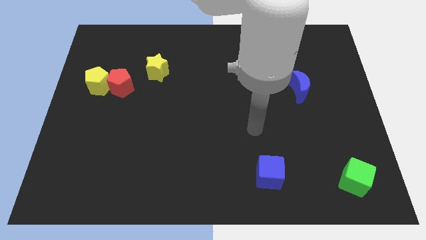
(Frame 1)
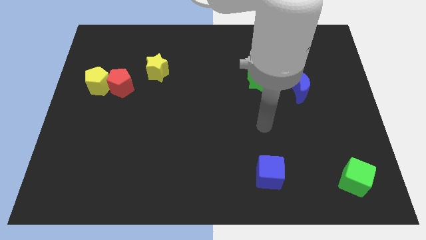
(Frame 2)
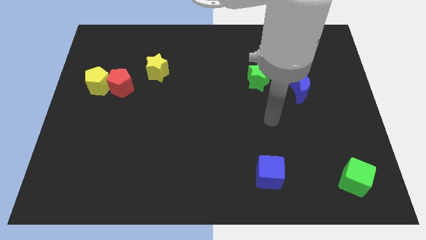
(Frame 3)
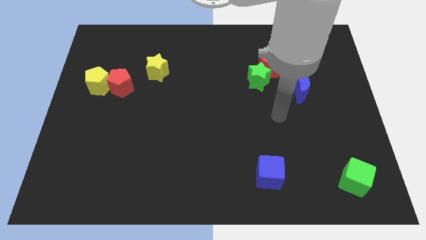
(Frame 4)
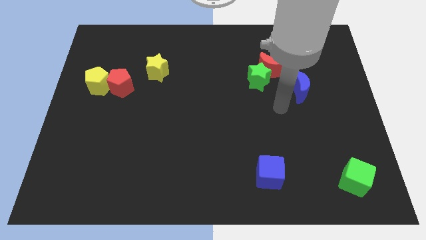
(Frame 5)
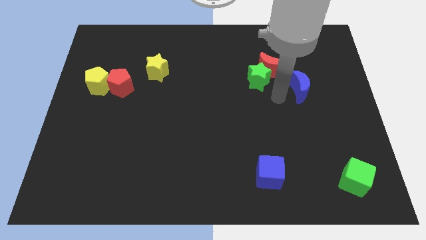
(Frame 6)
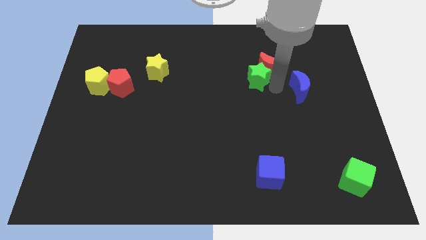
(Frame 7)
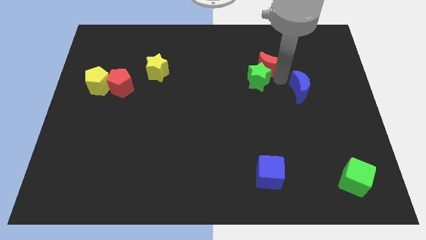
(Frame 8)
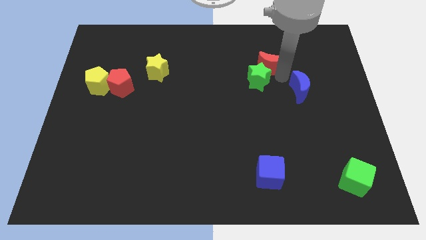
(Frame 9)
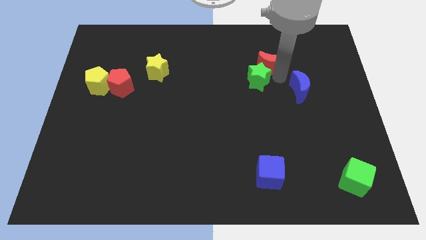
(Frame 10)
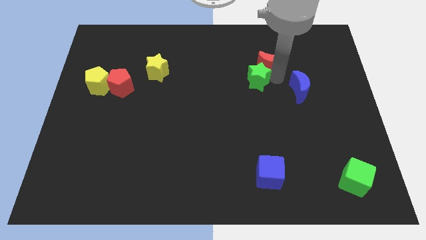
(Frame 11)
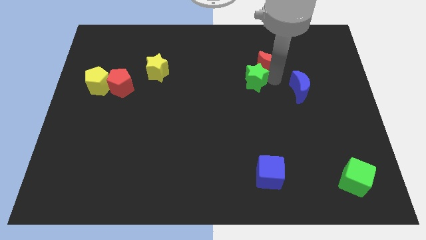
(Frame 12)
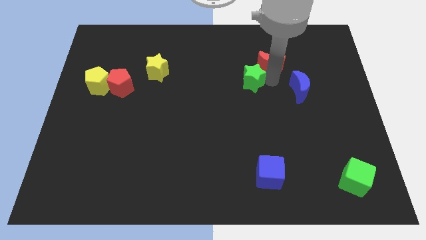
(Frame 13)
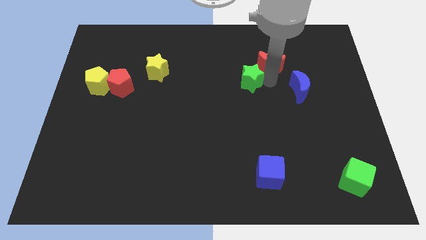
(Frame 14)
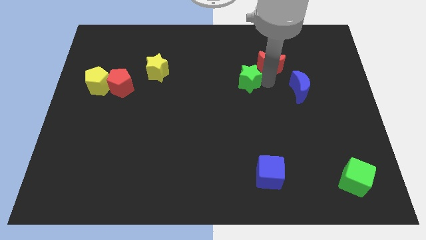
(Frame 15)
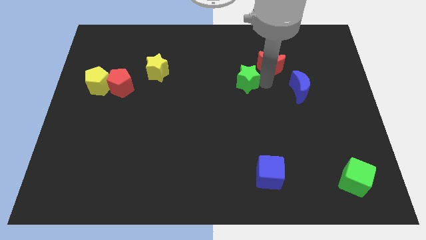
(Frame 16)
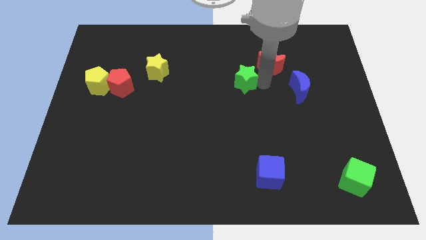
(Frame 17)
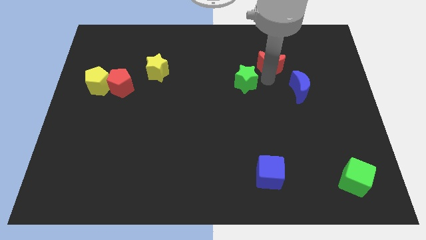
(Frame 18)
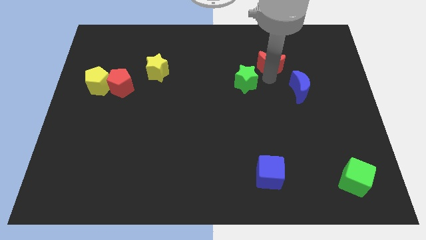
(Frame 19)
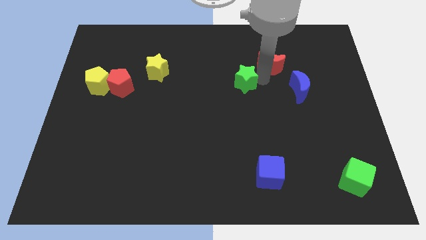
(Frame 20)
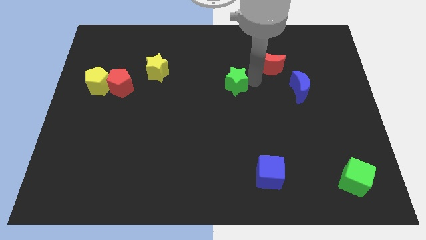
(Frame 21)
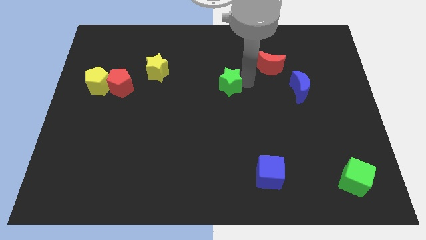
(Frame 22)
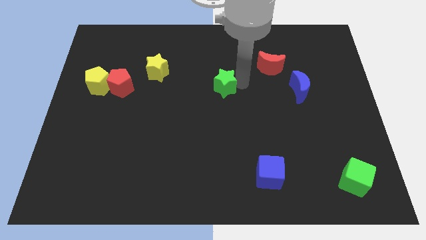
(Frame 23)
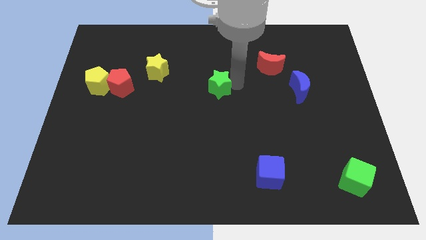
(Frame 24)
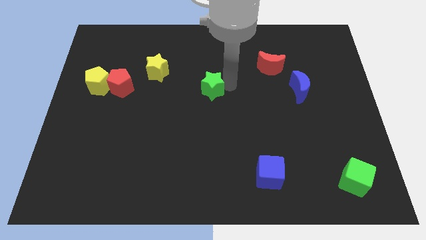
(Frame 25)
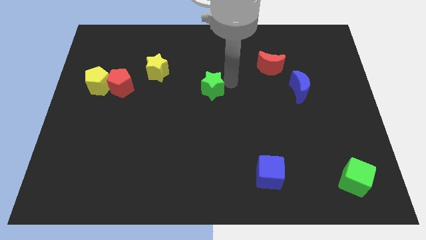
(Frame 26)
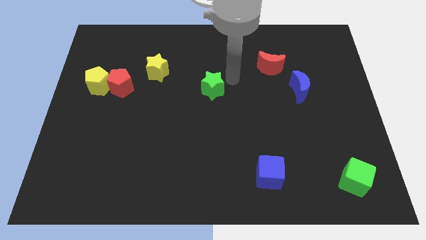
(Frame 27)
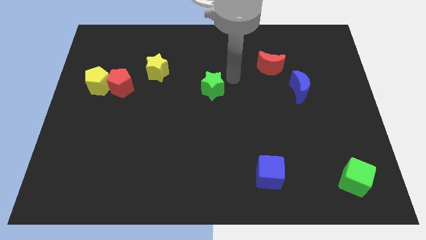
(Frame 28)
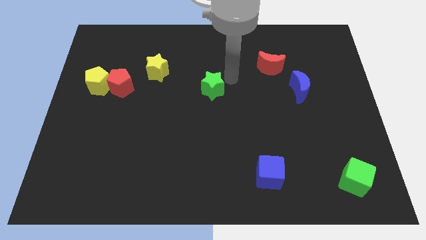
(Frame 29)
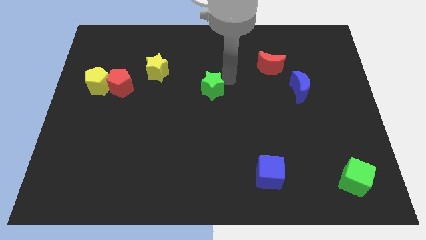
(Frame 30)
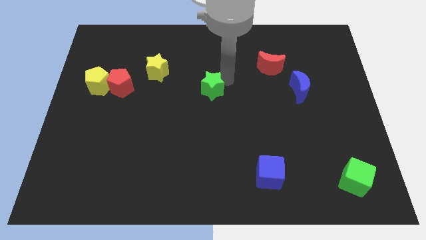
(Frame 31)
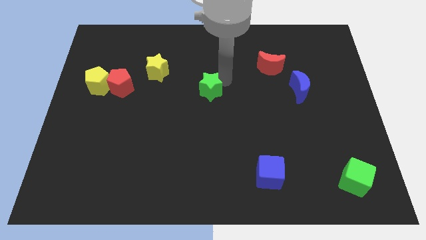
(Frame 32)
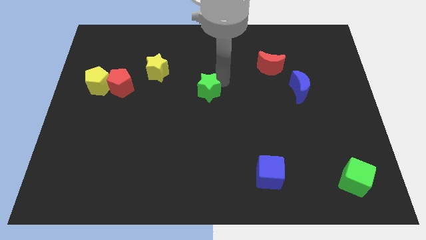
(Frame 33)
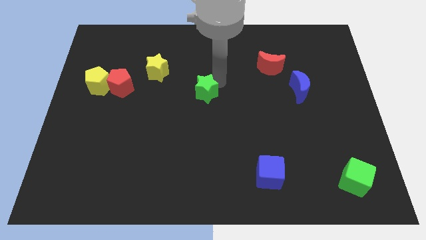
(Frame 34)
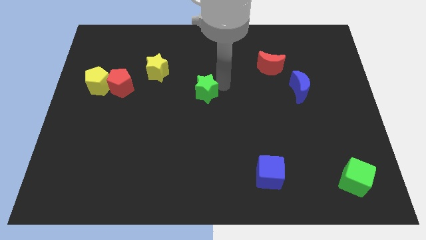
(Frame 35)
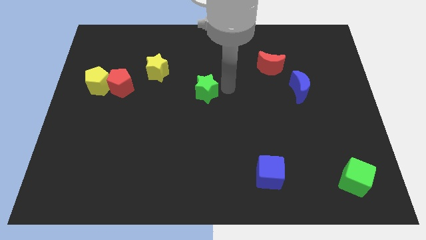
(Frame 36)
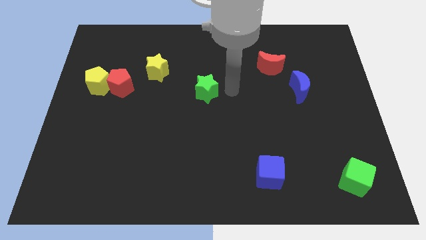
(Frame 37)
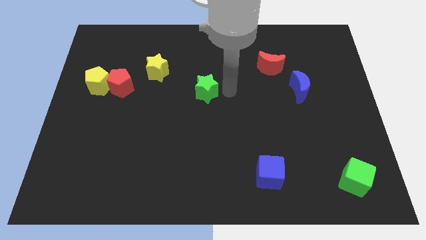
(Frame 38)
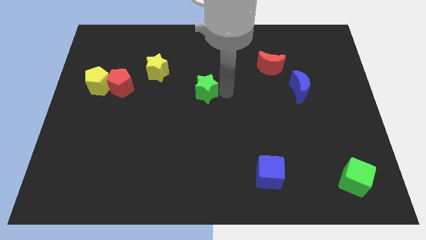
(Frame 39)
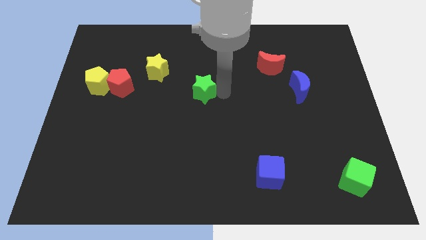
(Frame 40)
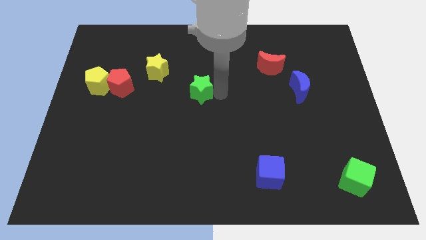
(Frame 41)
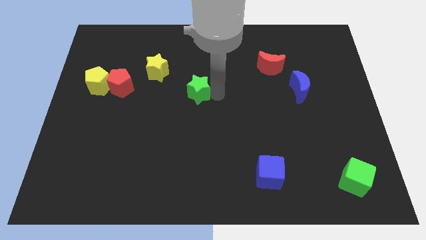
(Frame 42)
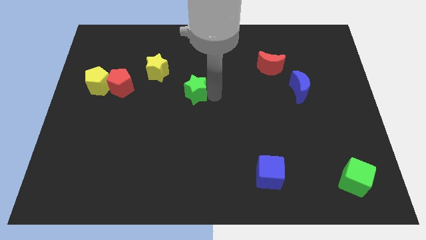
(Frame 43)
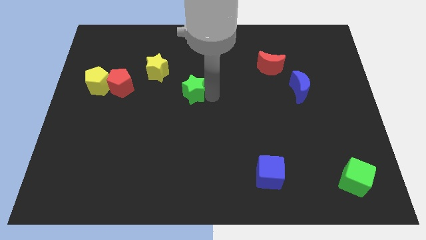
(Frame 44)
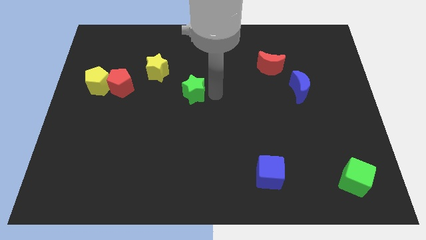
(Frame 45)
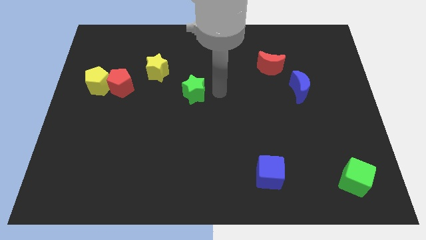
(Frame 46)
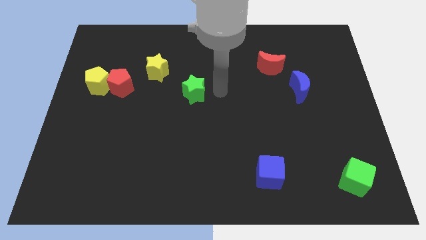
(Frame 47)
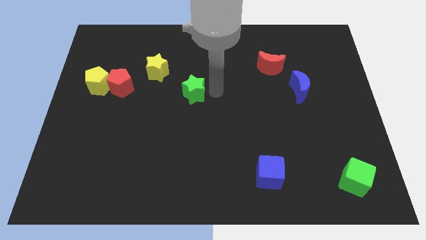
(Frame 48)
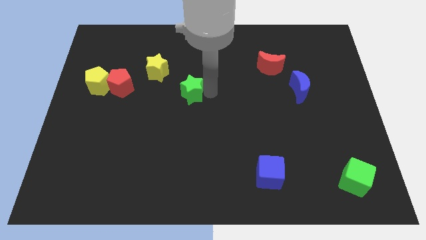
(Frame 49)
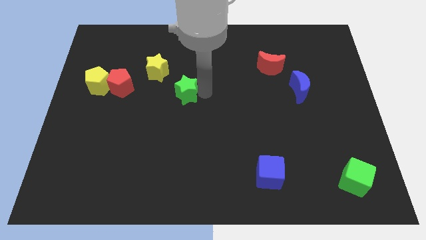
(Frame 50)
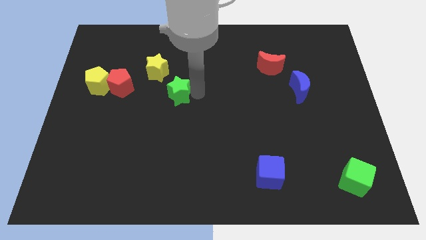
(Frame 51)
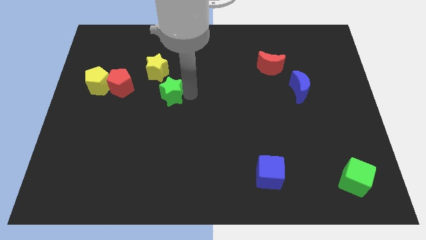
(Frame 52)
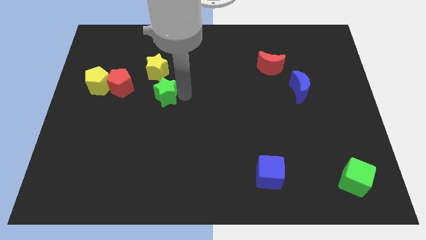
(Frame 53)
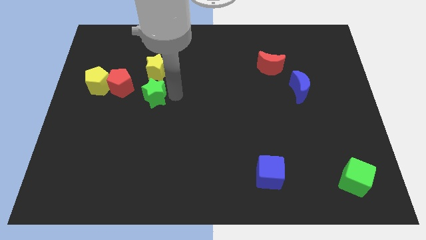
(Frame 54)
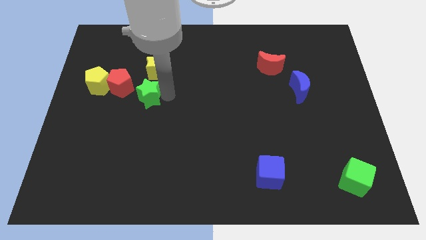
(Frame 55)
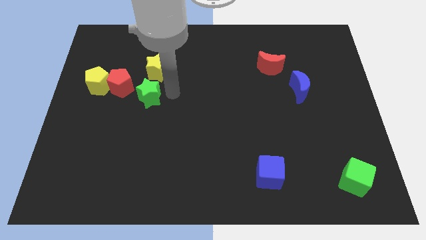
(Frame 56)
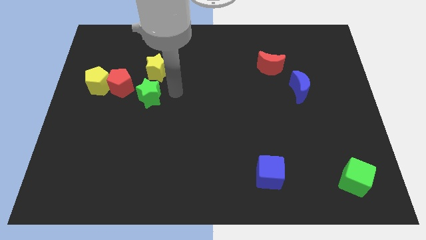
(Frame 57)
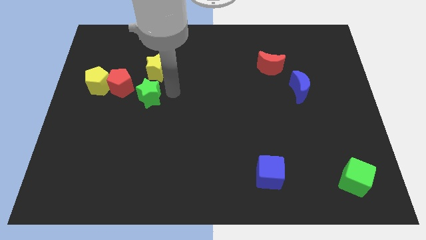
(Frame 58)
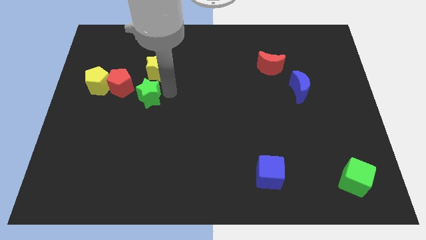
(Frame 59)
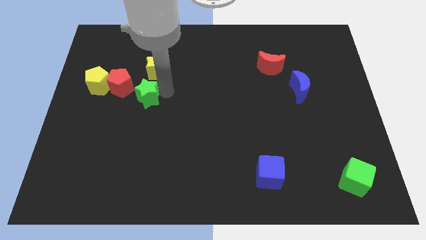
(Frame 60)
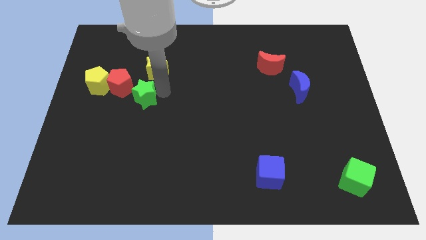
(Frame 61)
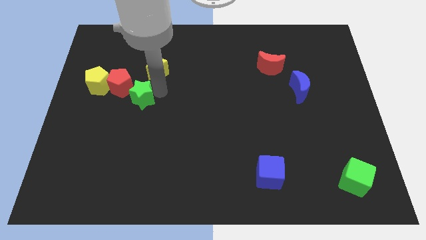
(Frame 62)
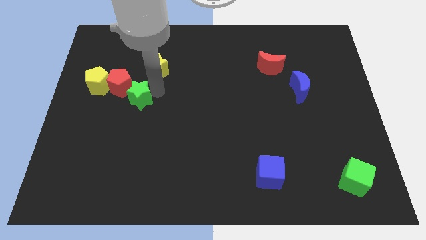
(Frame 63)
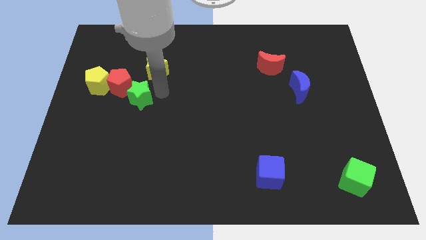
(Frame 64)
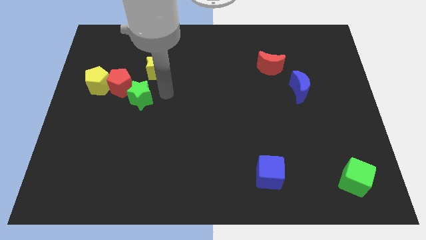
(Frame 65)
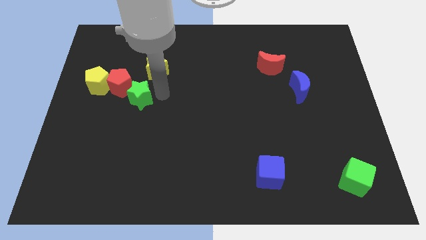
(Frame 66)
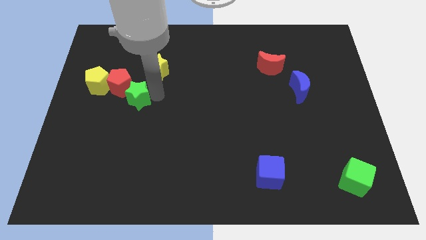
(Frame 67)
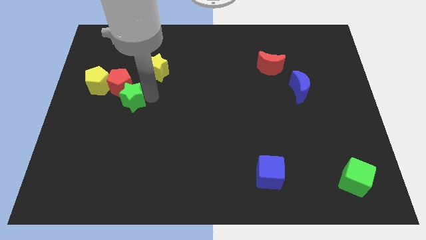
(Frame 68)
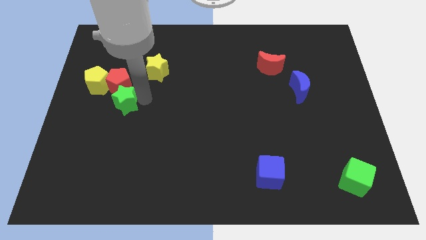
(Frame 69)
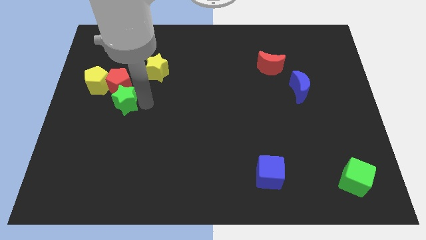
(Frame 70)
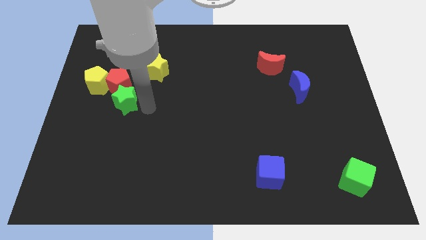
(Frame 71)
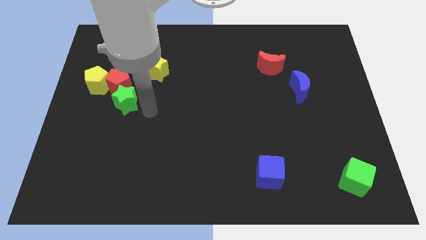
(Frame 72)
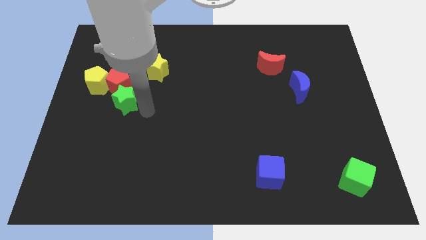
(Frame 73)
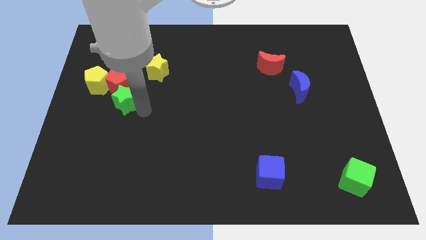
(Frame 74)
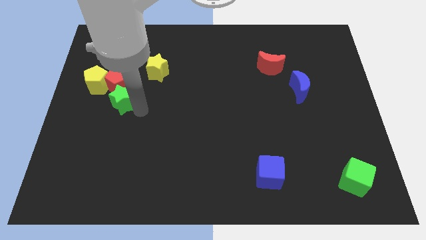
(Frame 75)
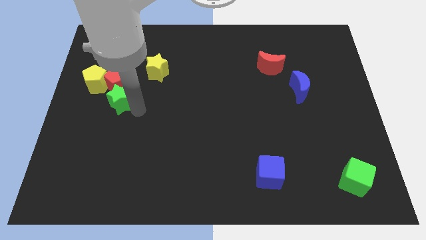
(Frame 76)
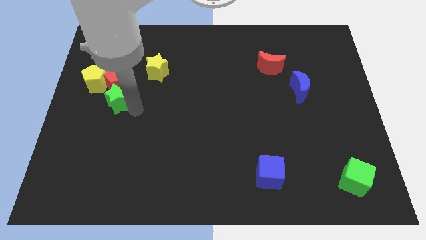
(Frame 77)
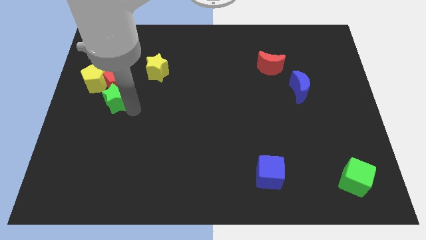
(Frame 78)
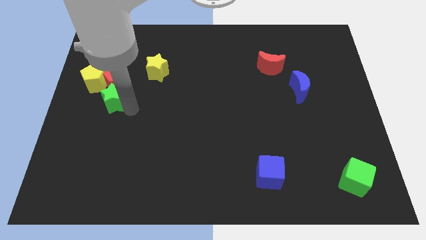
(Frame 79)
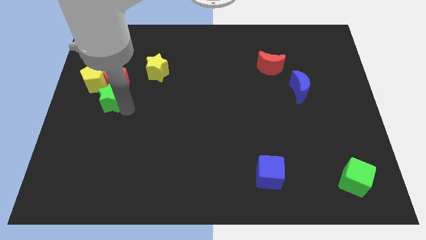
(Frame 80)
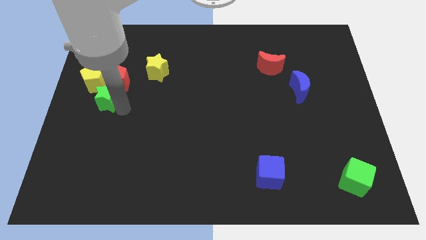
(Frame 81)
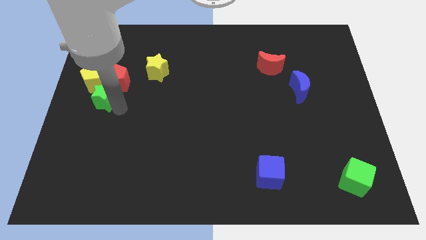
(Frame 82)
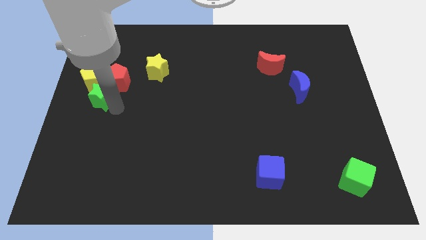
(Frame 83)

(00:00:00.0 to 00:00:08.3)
put the green star to the yellow pentagon
